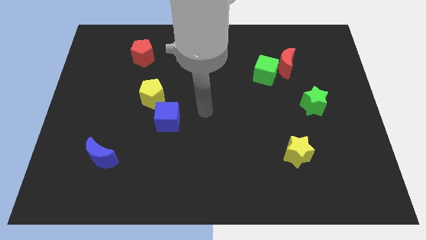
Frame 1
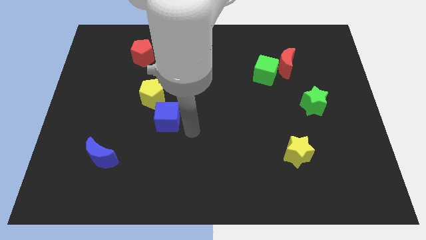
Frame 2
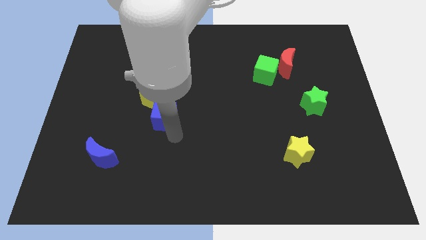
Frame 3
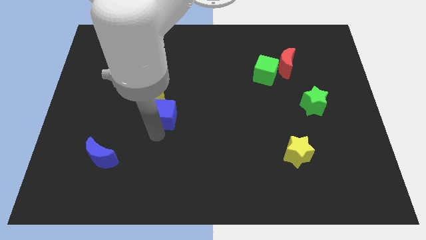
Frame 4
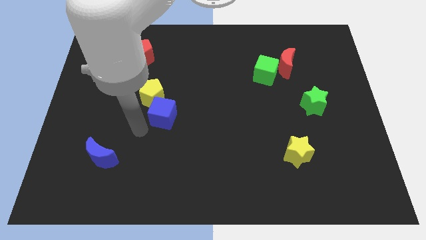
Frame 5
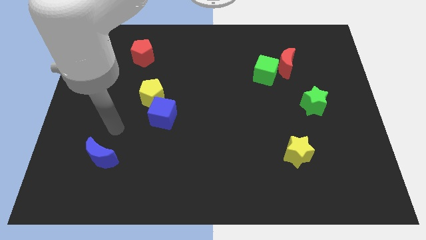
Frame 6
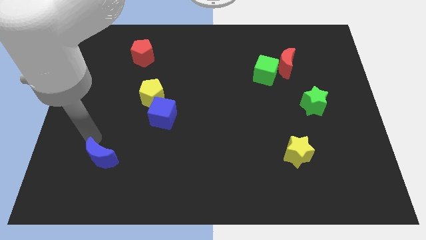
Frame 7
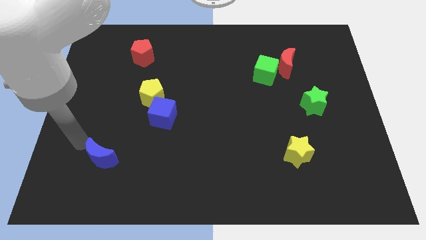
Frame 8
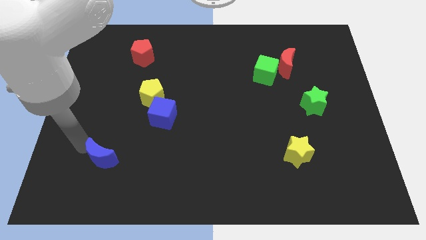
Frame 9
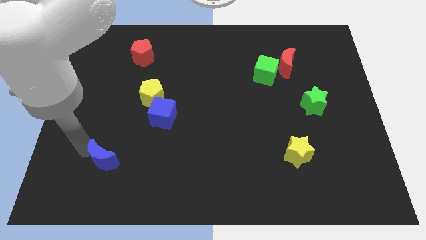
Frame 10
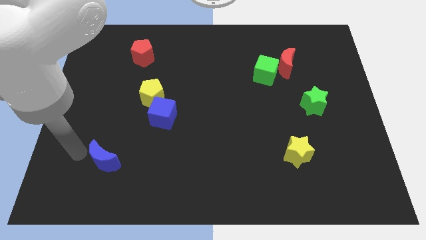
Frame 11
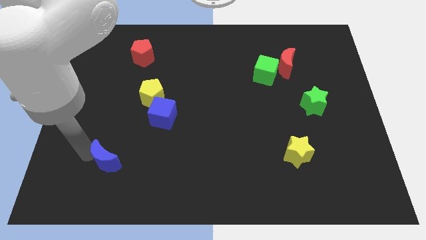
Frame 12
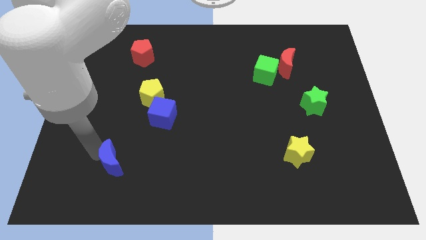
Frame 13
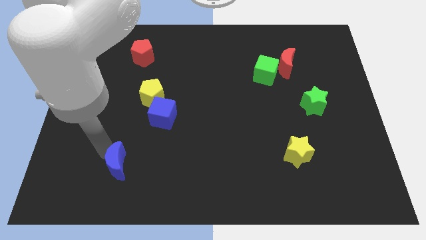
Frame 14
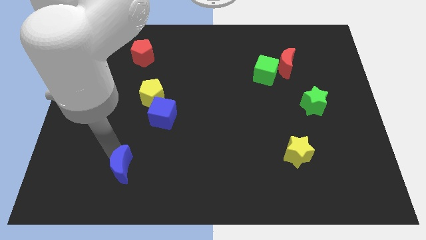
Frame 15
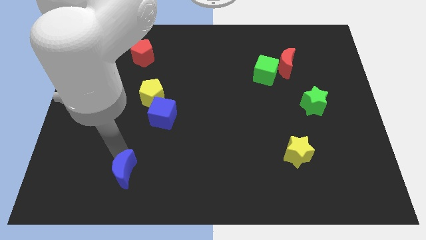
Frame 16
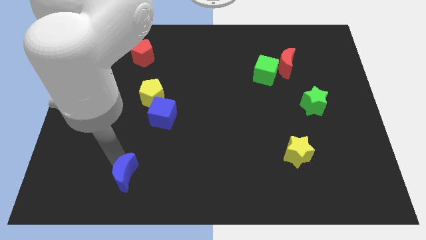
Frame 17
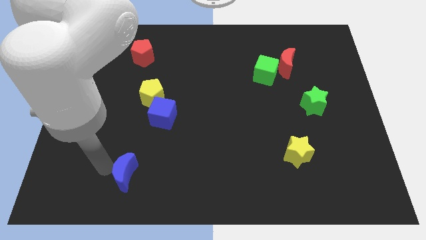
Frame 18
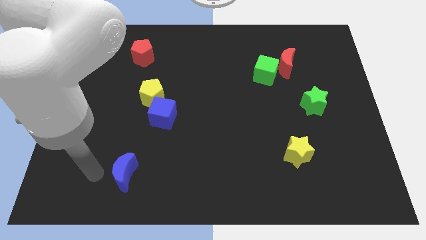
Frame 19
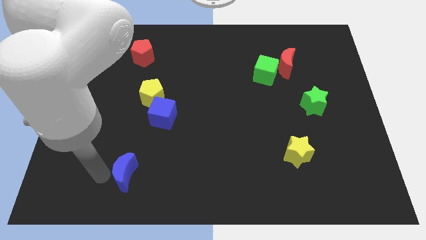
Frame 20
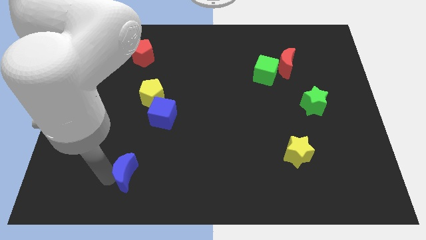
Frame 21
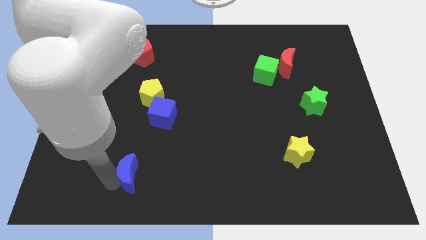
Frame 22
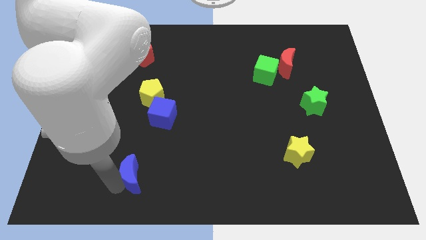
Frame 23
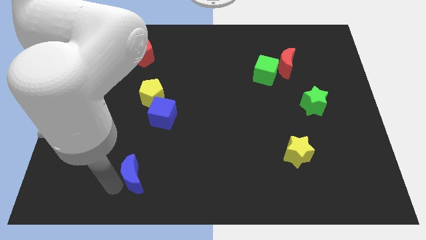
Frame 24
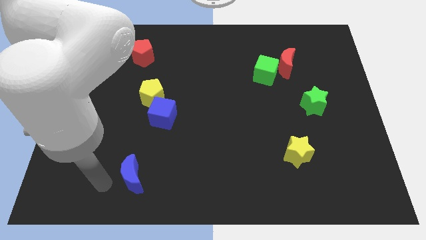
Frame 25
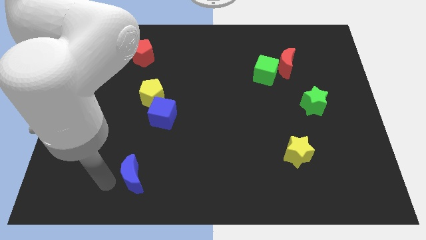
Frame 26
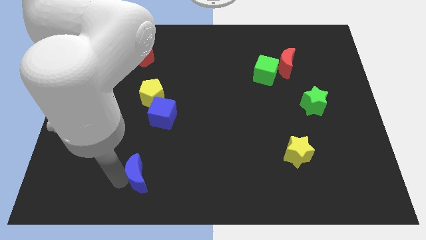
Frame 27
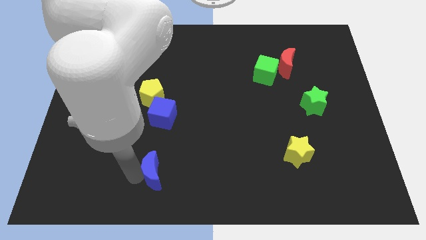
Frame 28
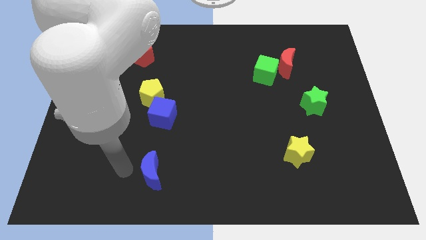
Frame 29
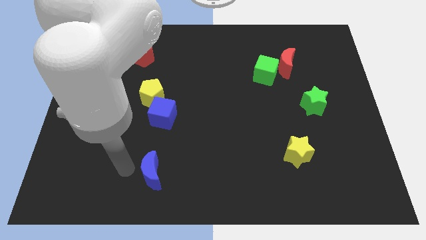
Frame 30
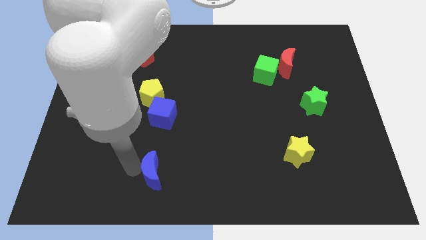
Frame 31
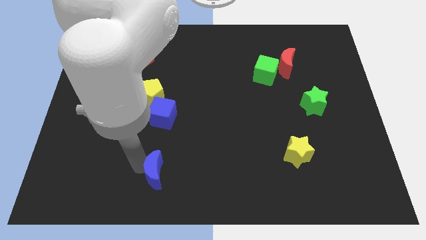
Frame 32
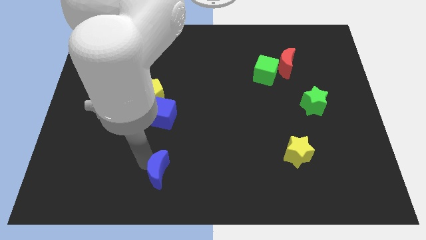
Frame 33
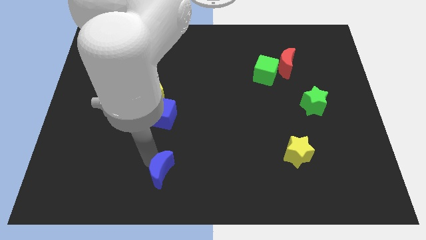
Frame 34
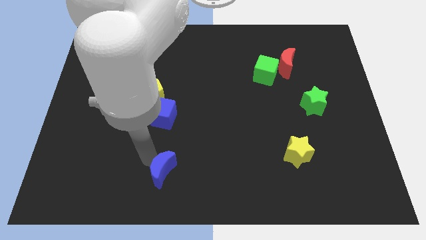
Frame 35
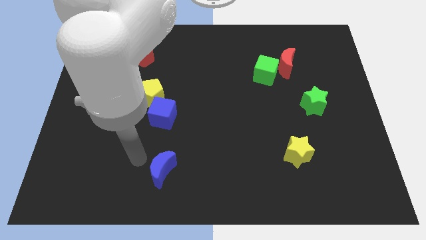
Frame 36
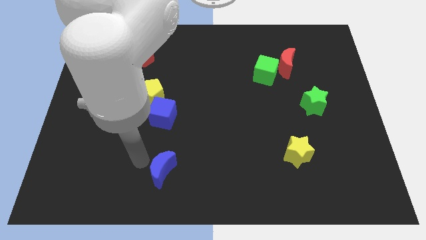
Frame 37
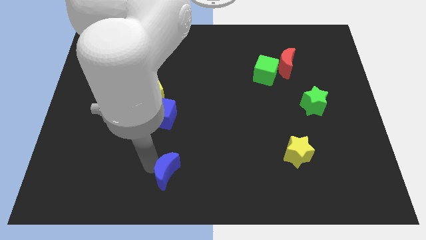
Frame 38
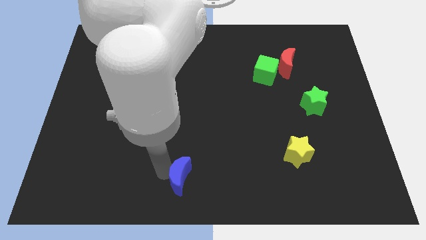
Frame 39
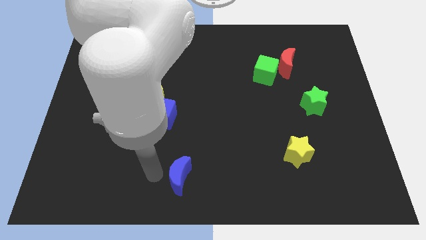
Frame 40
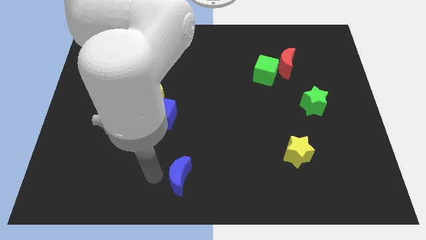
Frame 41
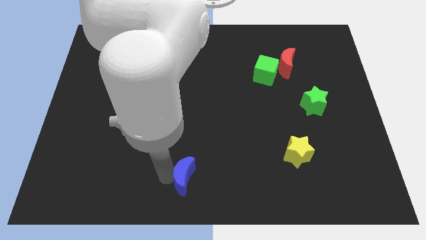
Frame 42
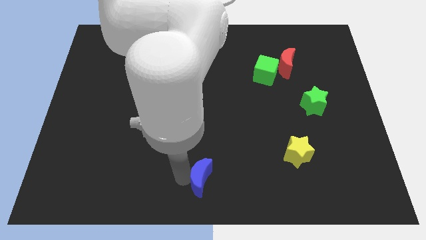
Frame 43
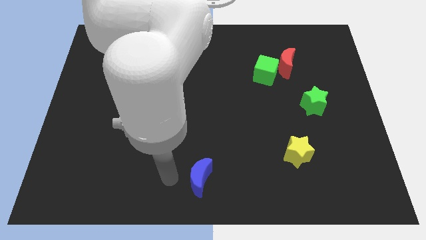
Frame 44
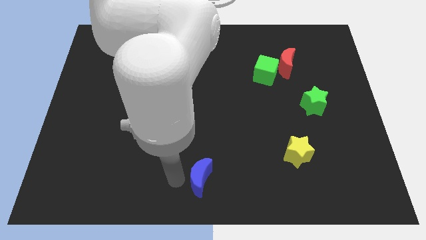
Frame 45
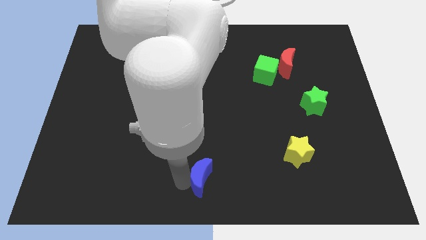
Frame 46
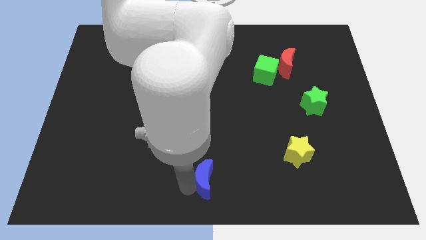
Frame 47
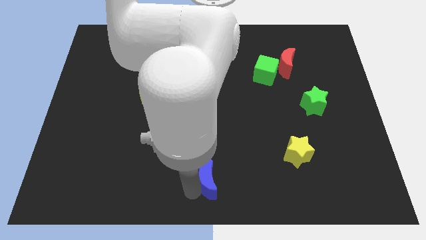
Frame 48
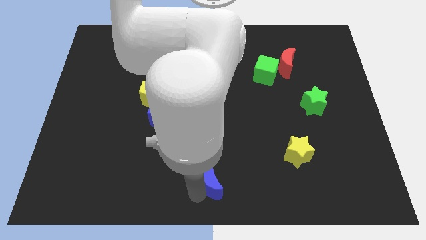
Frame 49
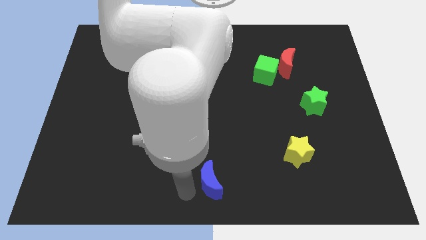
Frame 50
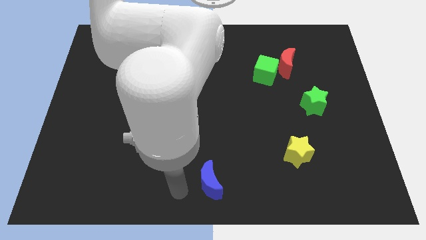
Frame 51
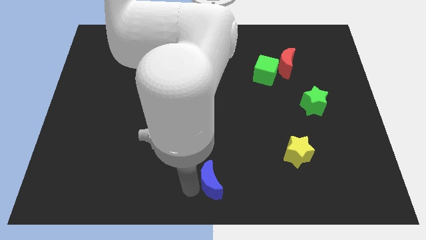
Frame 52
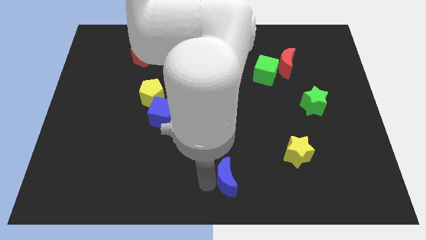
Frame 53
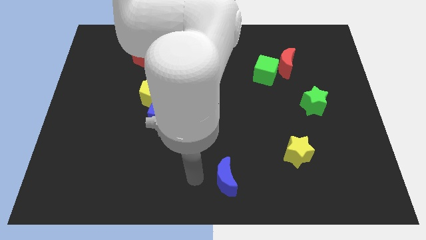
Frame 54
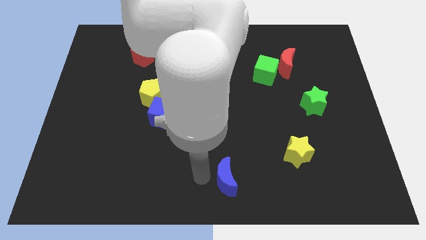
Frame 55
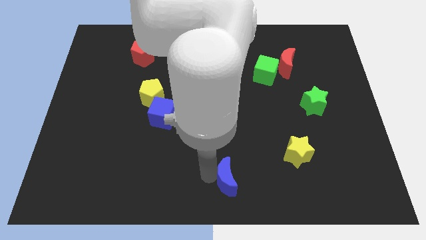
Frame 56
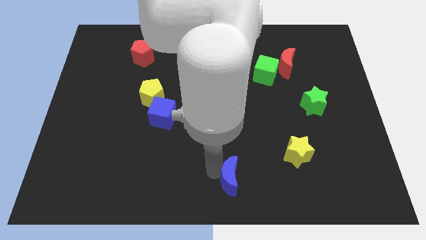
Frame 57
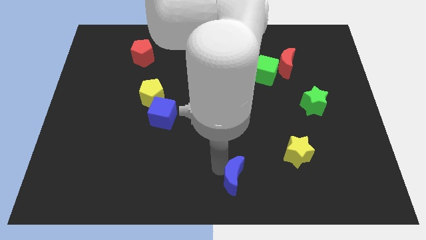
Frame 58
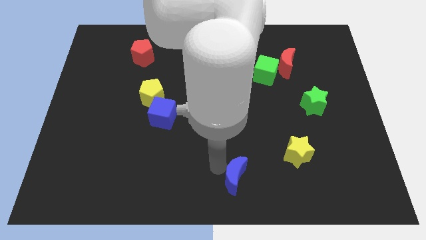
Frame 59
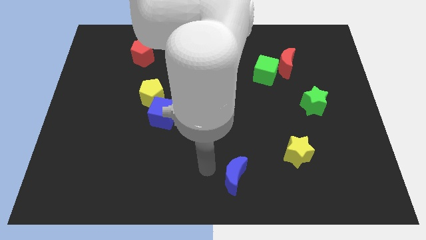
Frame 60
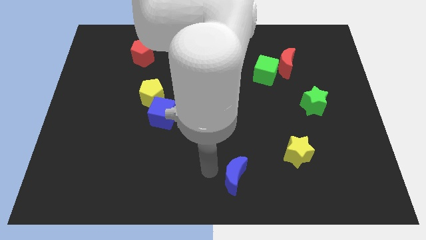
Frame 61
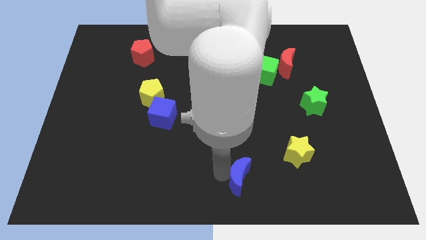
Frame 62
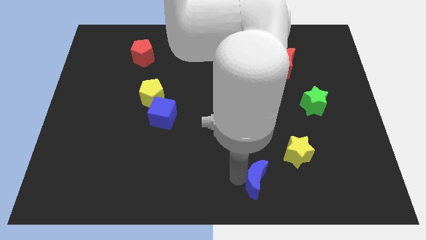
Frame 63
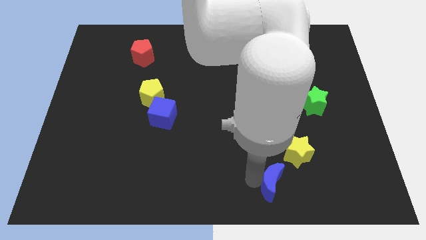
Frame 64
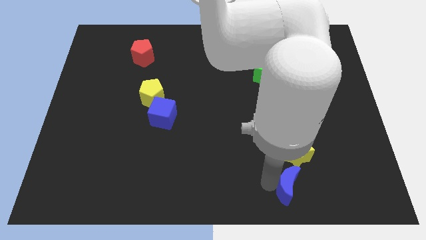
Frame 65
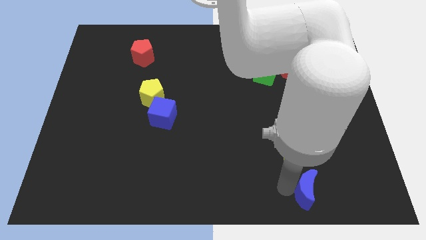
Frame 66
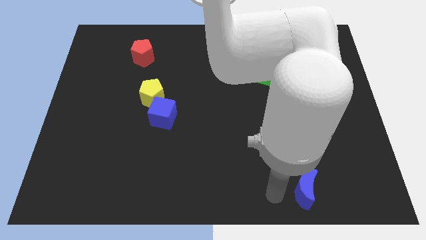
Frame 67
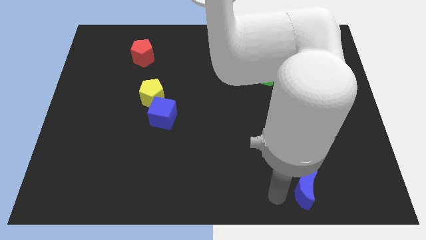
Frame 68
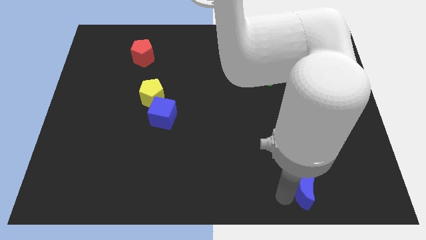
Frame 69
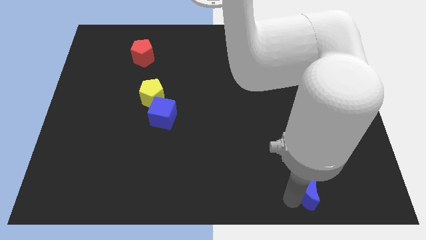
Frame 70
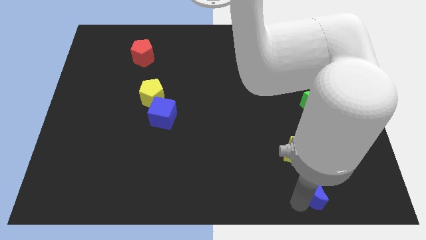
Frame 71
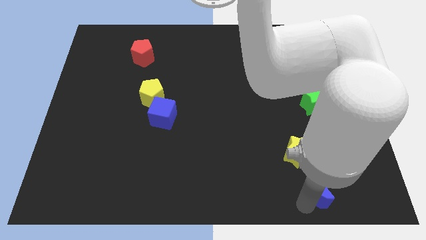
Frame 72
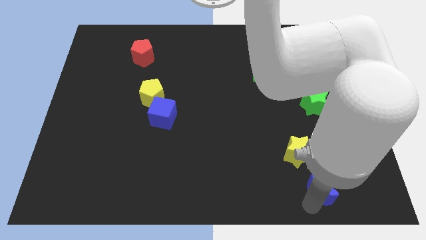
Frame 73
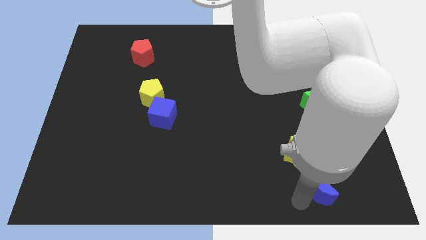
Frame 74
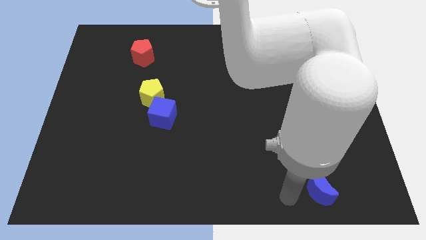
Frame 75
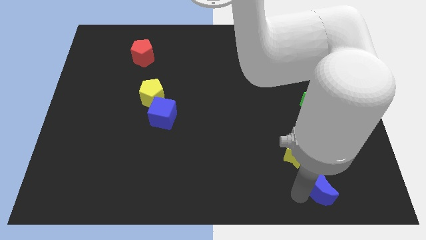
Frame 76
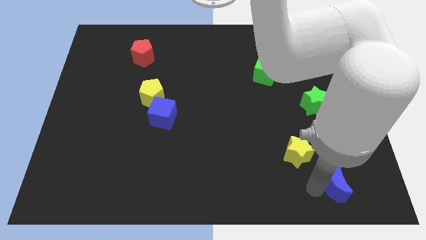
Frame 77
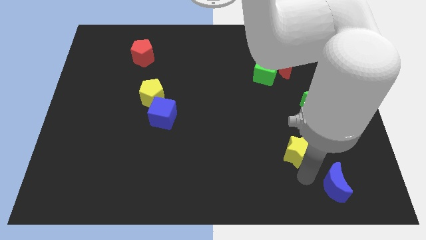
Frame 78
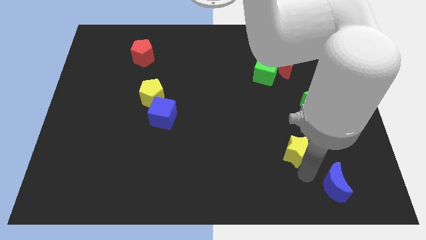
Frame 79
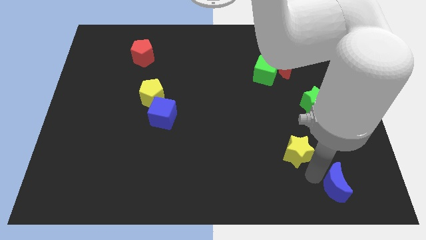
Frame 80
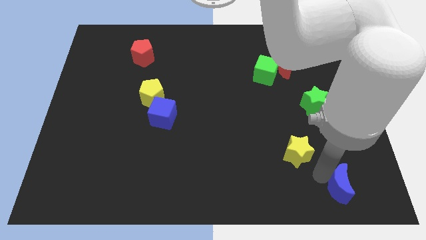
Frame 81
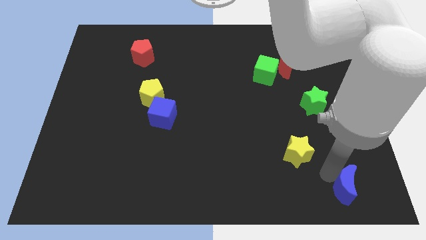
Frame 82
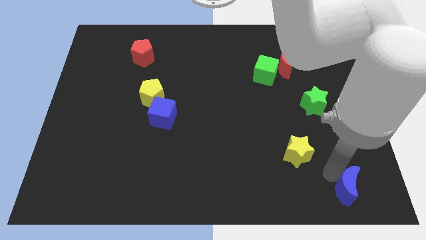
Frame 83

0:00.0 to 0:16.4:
put the blue moon to the lower right corner
